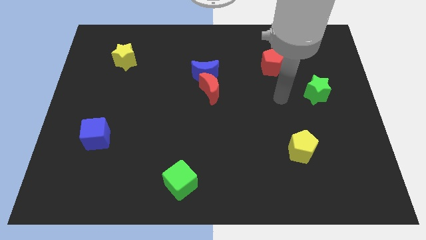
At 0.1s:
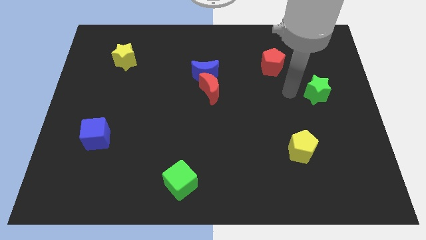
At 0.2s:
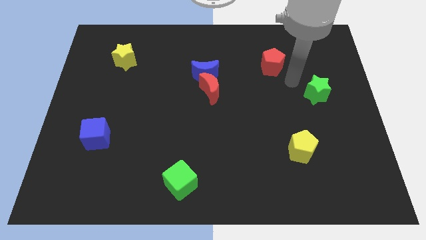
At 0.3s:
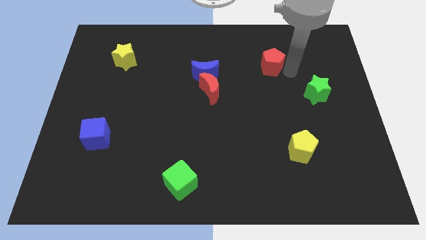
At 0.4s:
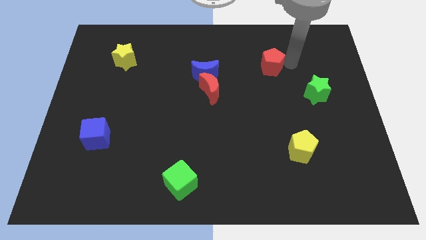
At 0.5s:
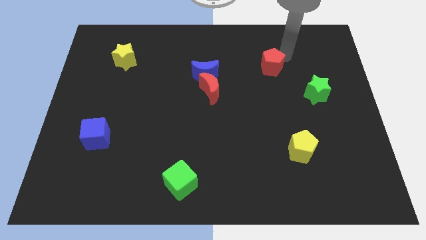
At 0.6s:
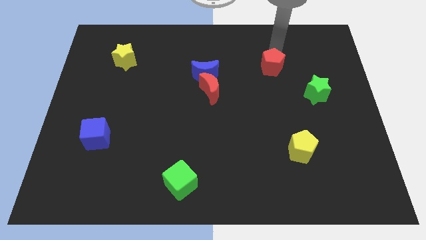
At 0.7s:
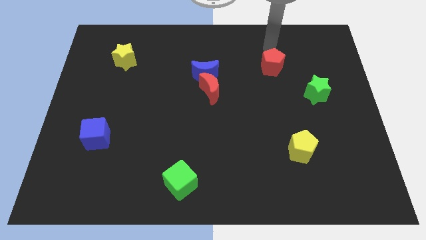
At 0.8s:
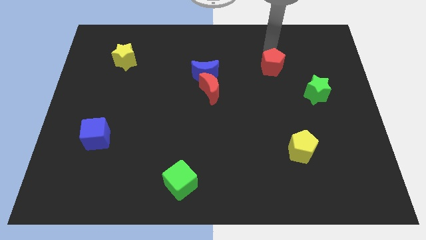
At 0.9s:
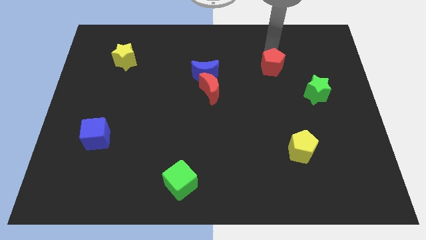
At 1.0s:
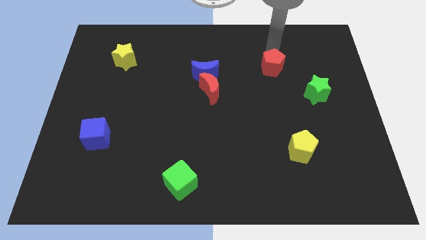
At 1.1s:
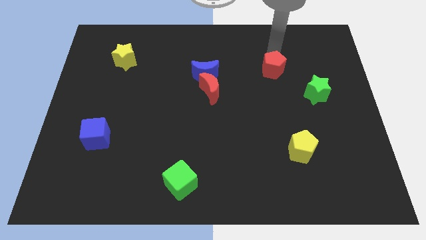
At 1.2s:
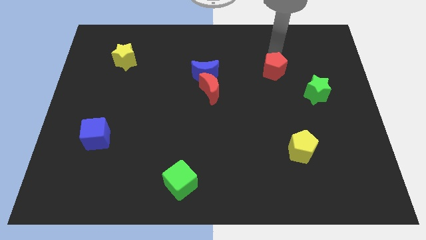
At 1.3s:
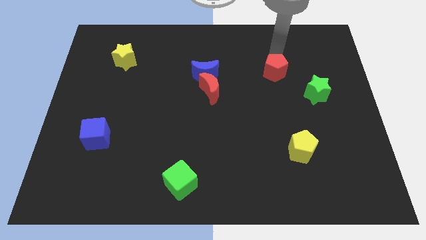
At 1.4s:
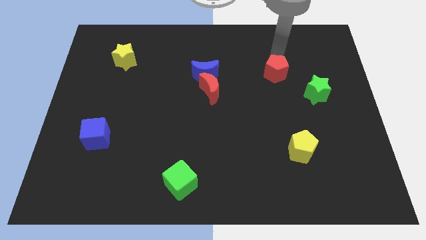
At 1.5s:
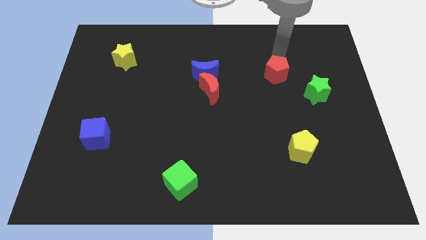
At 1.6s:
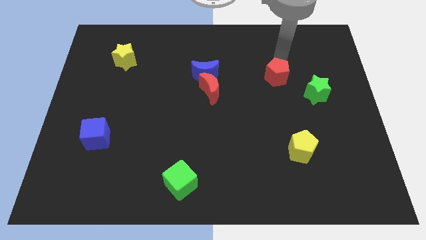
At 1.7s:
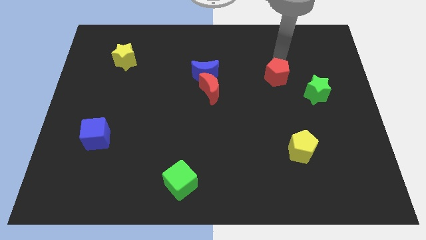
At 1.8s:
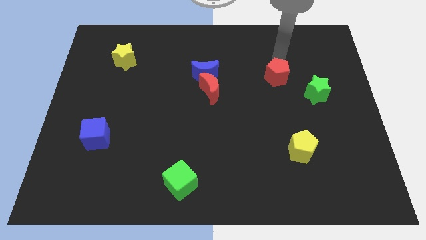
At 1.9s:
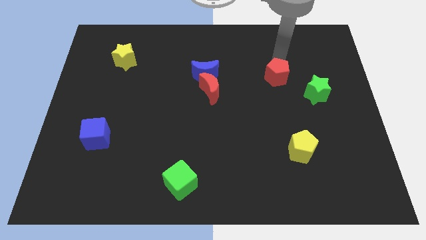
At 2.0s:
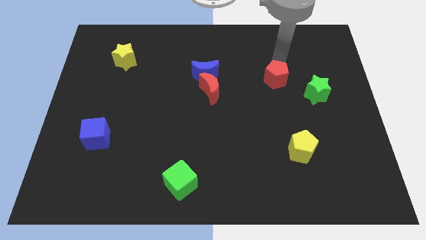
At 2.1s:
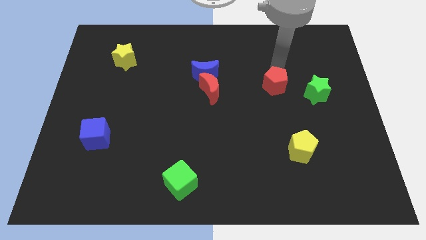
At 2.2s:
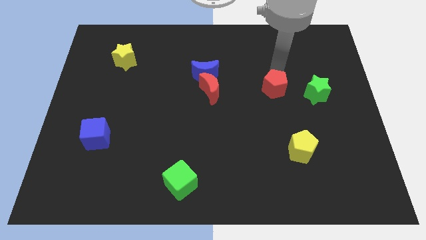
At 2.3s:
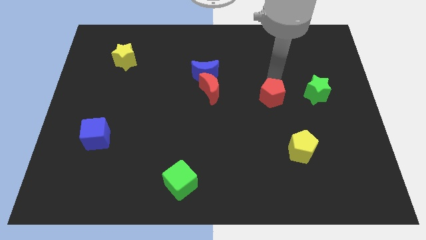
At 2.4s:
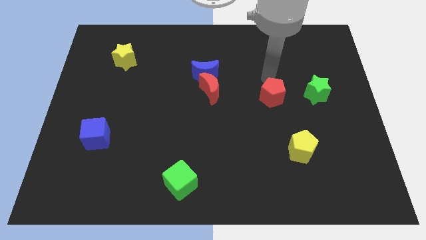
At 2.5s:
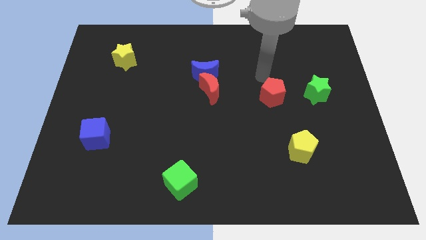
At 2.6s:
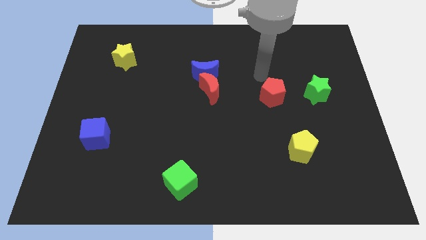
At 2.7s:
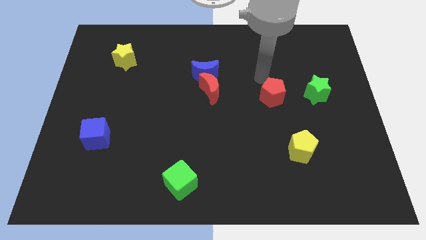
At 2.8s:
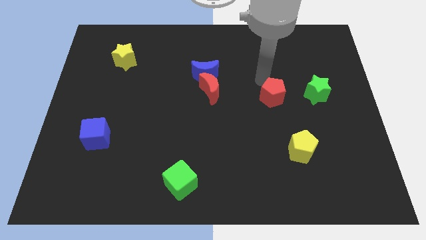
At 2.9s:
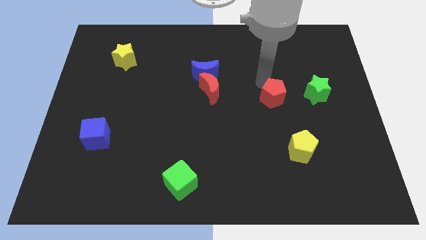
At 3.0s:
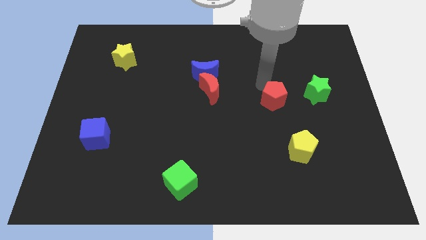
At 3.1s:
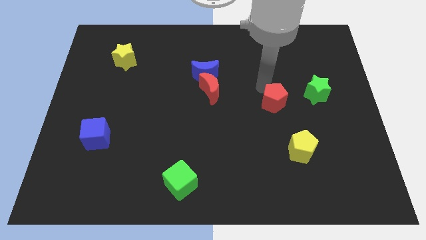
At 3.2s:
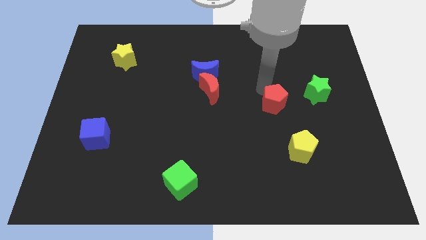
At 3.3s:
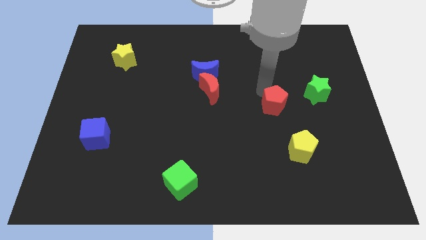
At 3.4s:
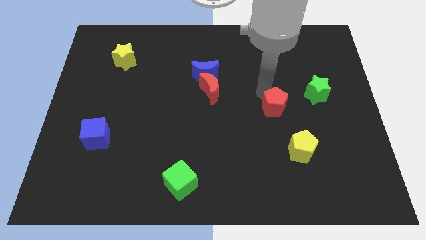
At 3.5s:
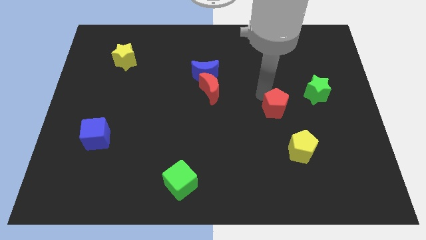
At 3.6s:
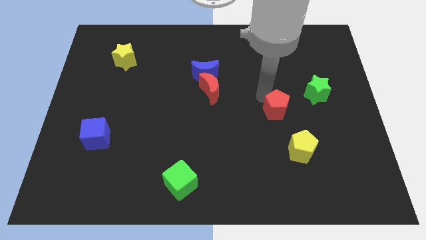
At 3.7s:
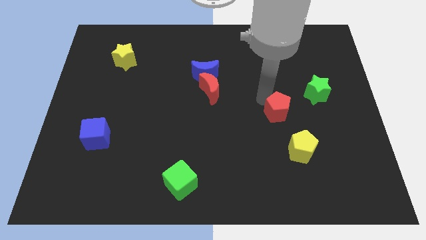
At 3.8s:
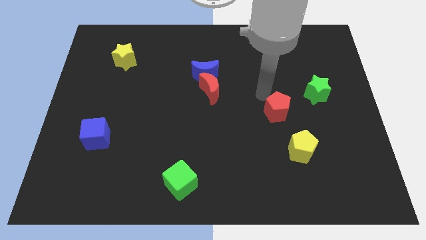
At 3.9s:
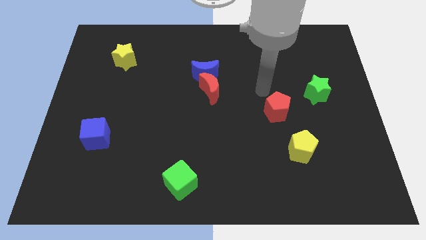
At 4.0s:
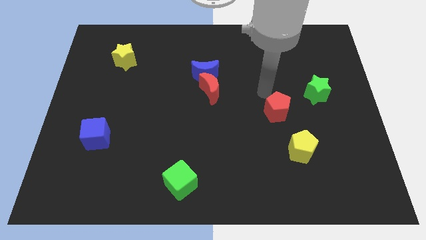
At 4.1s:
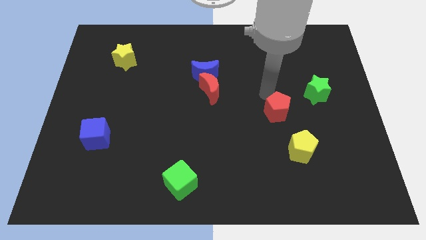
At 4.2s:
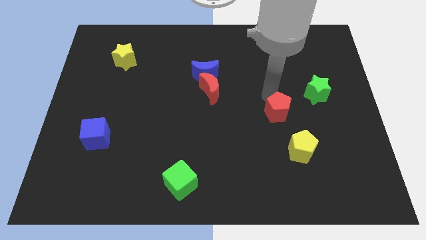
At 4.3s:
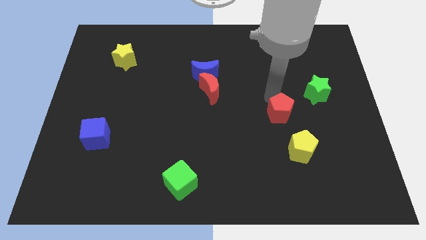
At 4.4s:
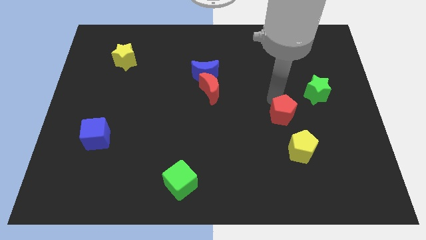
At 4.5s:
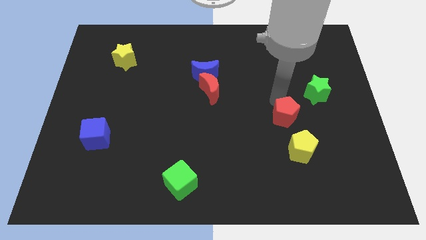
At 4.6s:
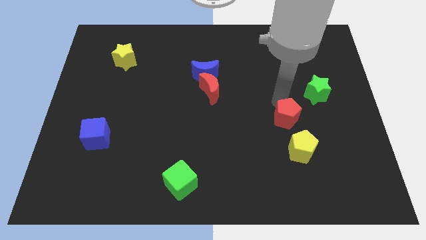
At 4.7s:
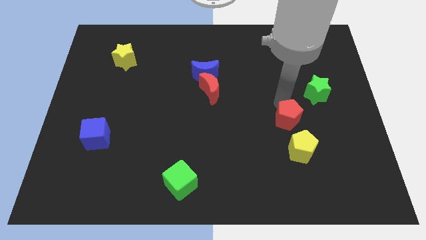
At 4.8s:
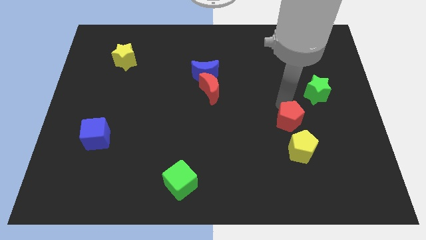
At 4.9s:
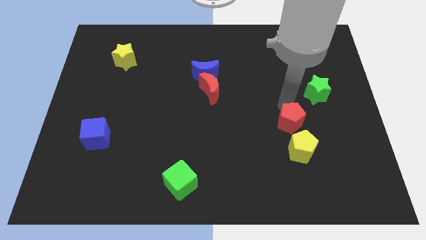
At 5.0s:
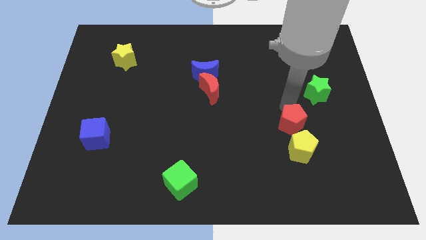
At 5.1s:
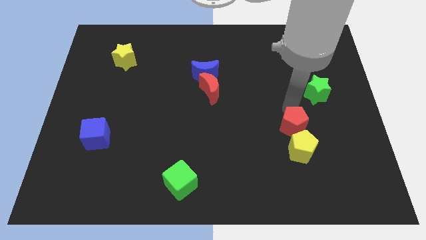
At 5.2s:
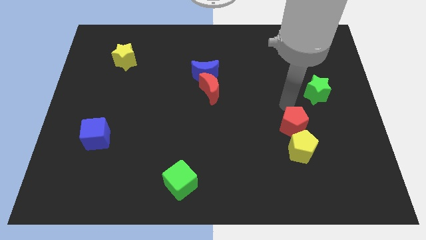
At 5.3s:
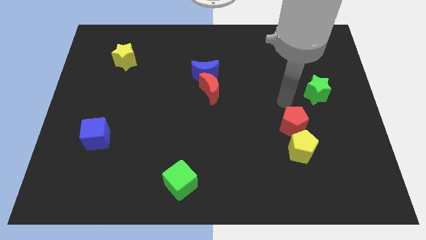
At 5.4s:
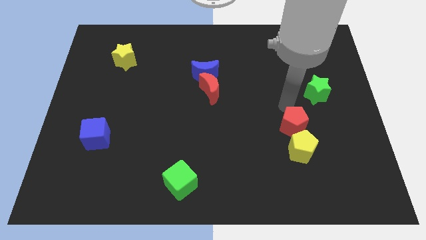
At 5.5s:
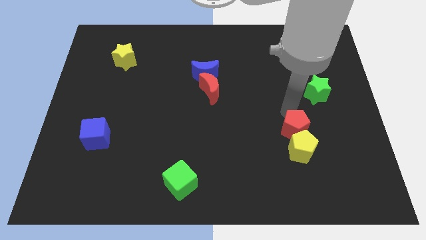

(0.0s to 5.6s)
put the red pentagon towards the yellow pentagon

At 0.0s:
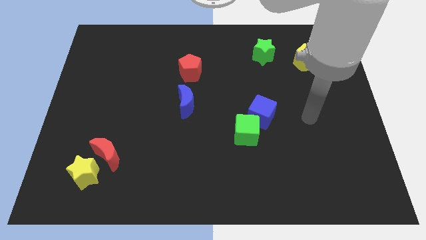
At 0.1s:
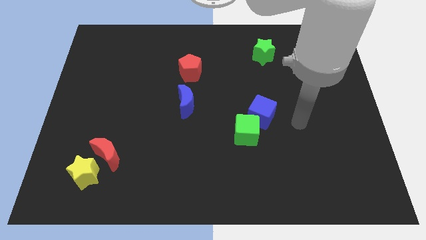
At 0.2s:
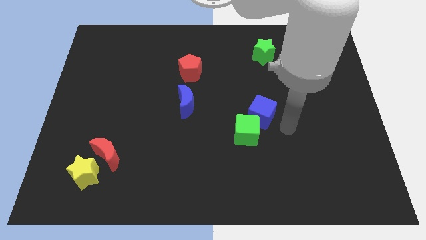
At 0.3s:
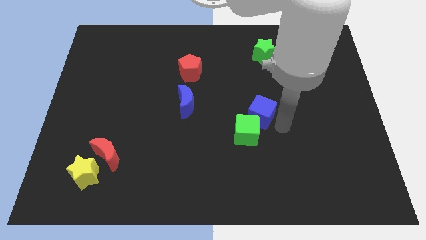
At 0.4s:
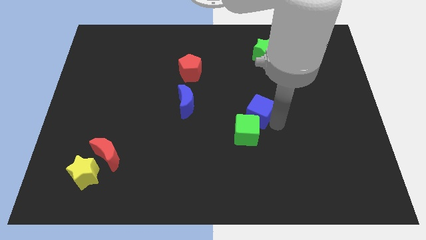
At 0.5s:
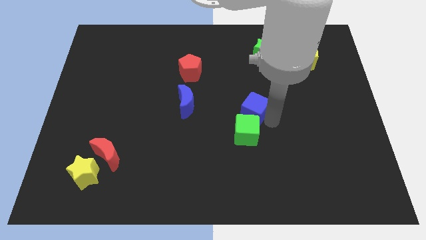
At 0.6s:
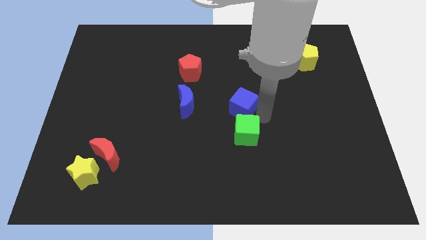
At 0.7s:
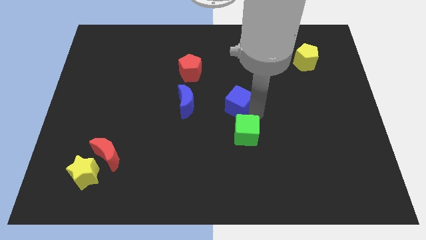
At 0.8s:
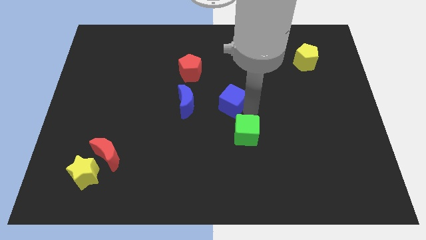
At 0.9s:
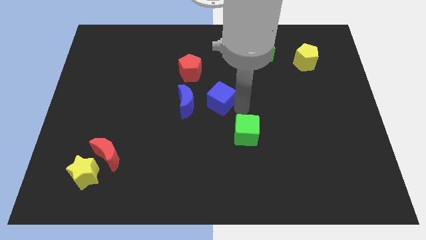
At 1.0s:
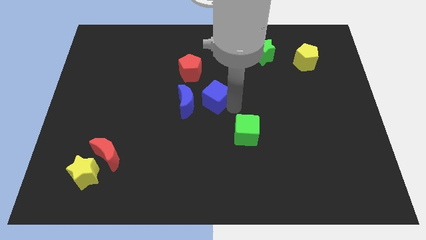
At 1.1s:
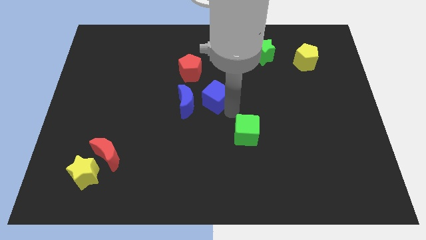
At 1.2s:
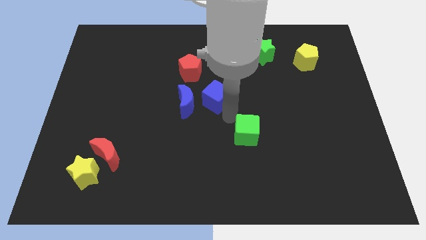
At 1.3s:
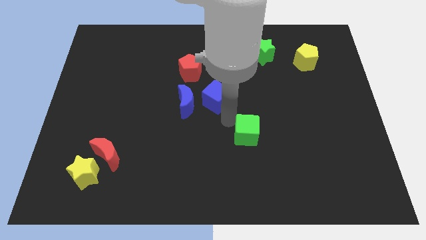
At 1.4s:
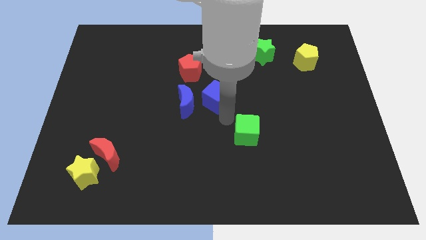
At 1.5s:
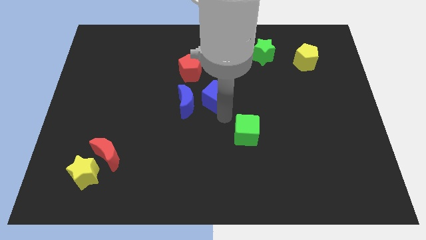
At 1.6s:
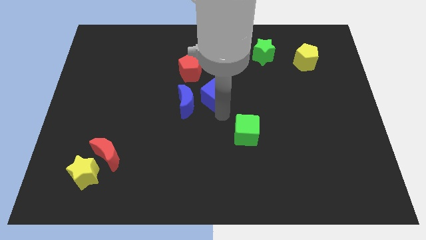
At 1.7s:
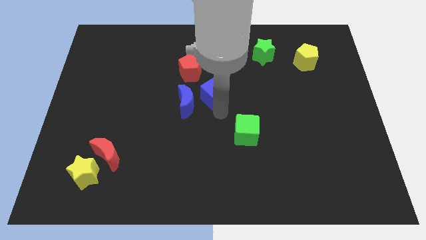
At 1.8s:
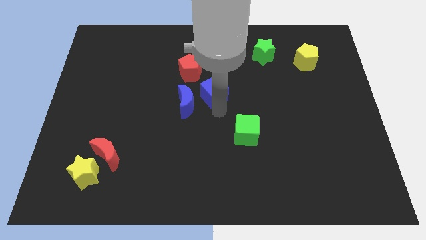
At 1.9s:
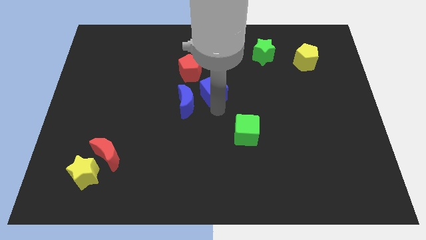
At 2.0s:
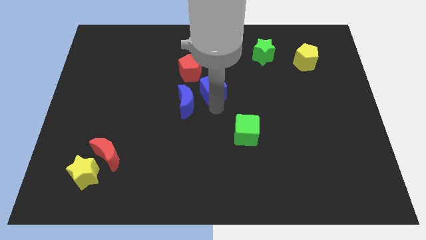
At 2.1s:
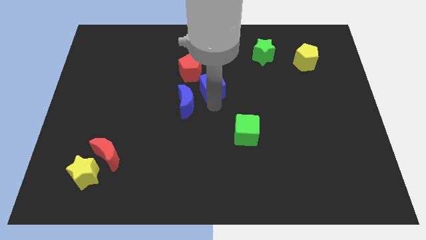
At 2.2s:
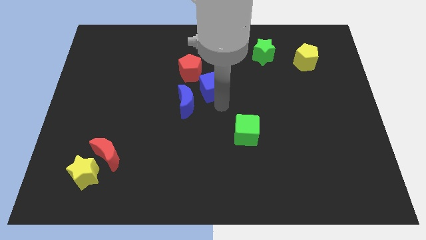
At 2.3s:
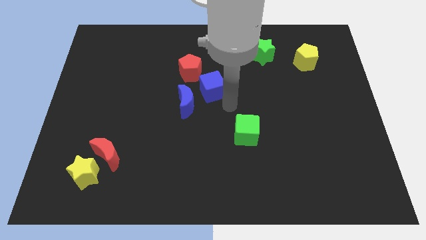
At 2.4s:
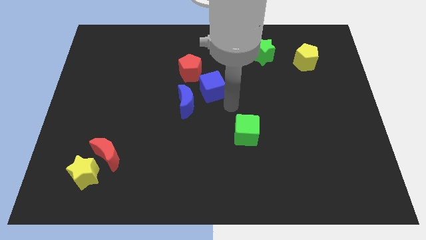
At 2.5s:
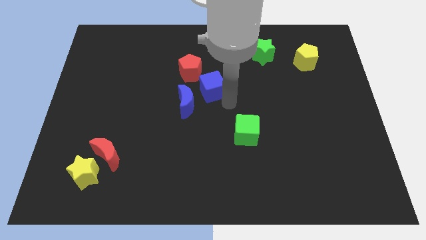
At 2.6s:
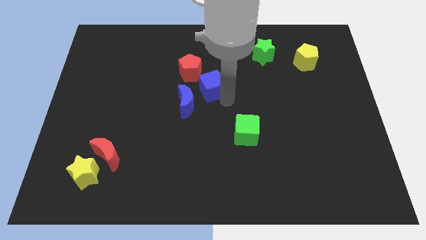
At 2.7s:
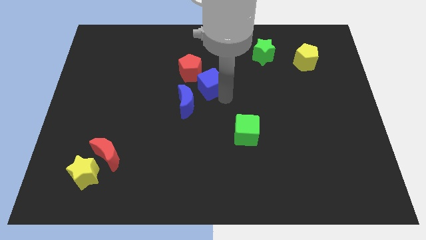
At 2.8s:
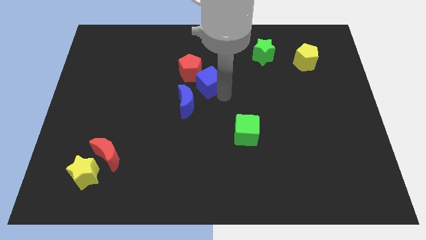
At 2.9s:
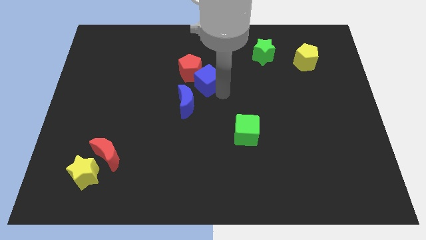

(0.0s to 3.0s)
move the blue cube next to the red pentagon
